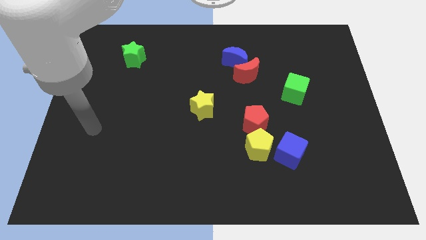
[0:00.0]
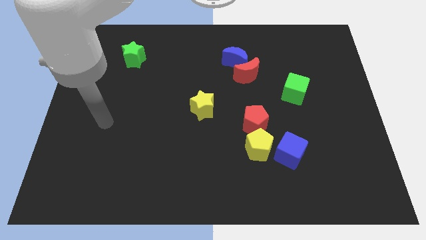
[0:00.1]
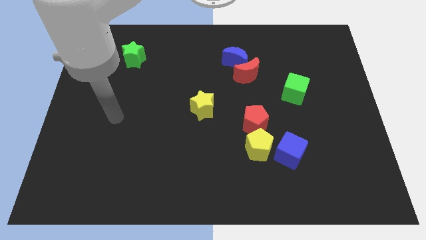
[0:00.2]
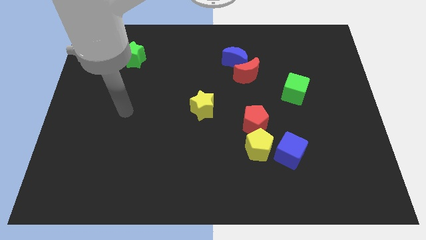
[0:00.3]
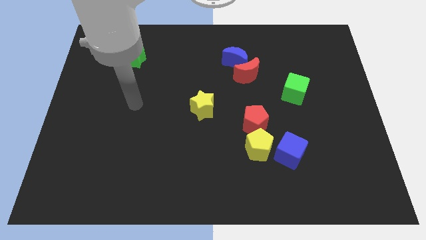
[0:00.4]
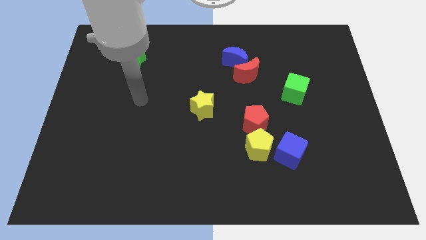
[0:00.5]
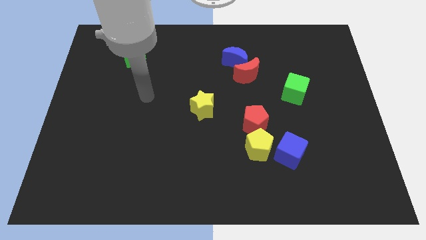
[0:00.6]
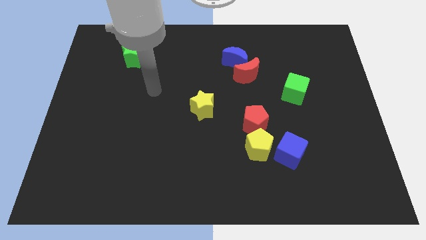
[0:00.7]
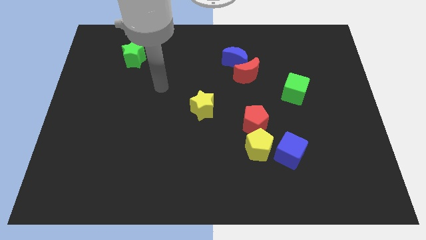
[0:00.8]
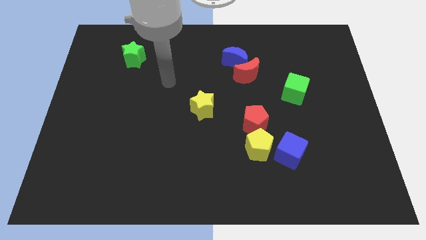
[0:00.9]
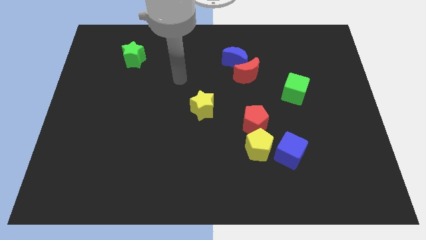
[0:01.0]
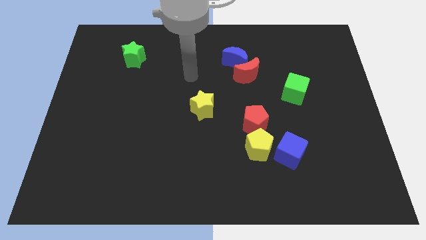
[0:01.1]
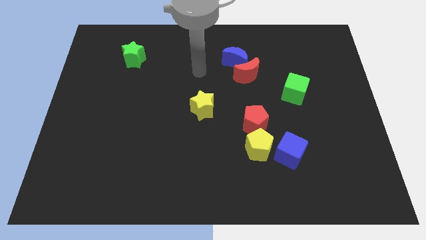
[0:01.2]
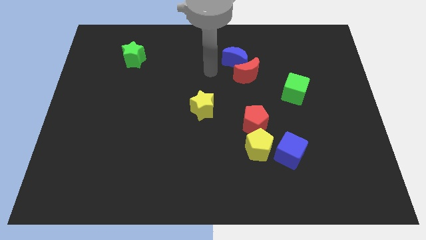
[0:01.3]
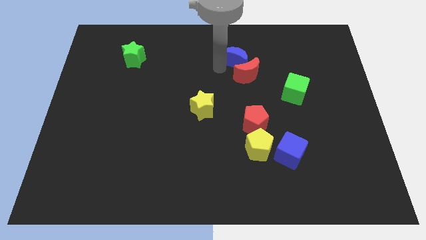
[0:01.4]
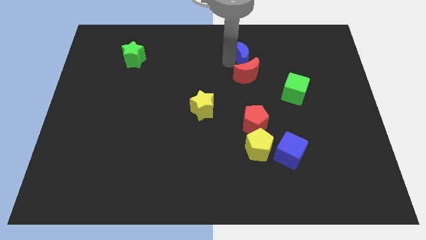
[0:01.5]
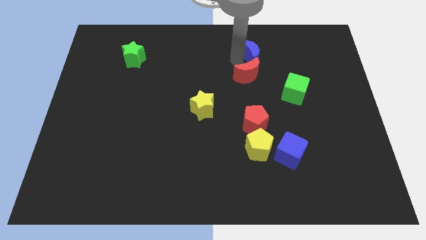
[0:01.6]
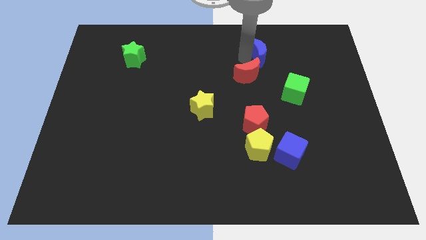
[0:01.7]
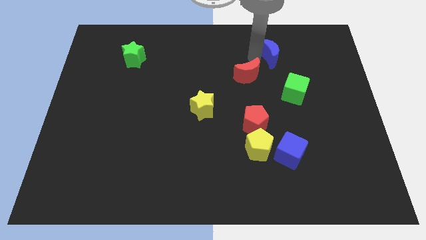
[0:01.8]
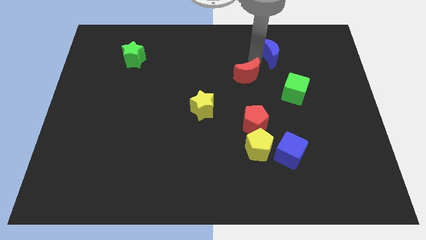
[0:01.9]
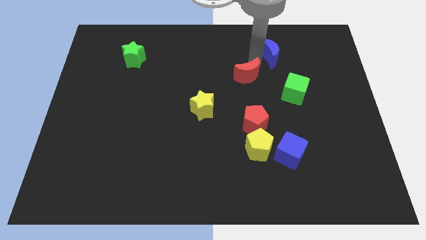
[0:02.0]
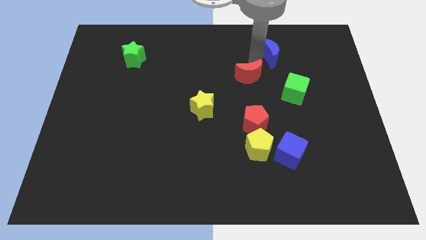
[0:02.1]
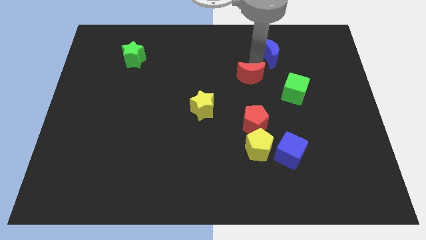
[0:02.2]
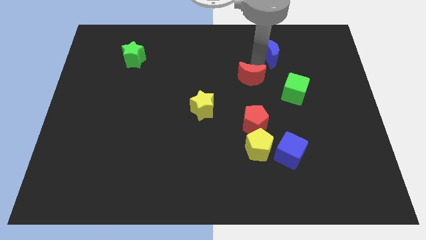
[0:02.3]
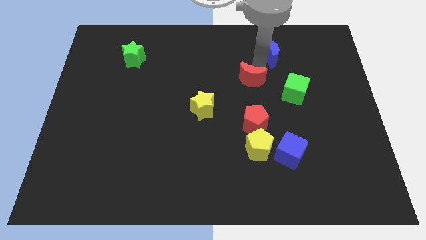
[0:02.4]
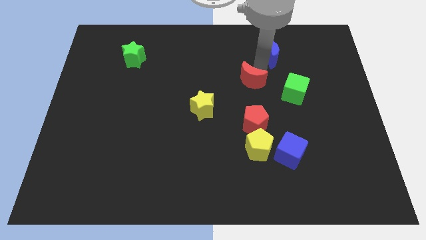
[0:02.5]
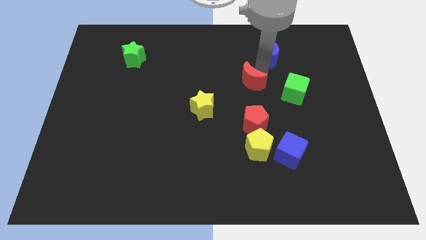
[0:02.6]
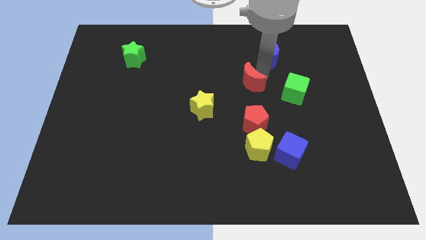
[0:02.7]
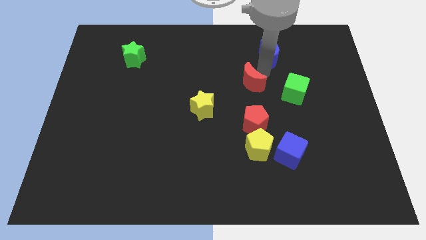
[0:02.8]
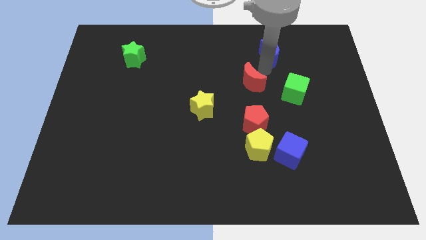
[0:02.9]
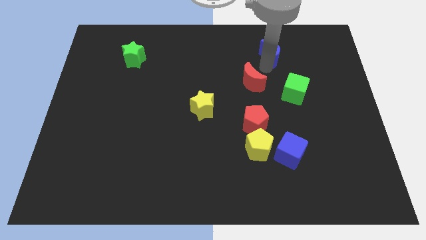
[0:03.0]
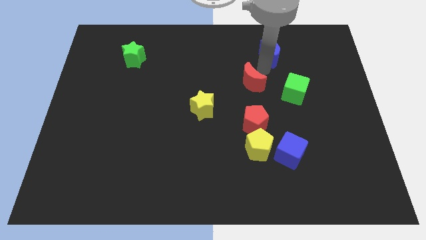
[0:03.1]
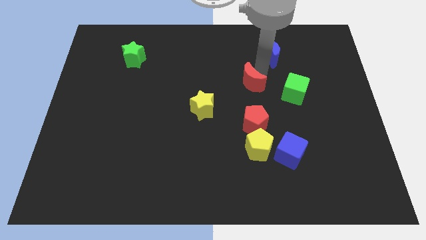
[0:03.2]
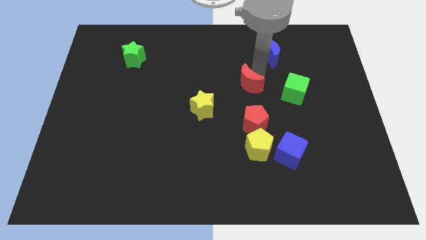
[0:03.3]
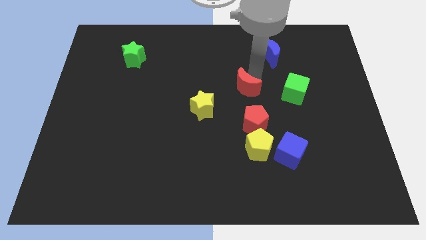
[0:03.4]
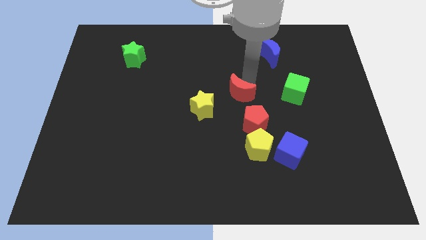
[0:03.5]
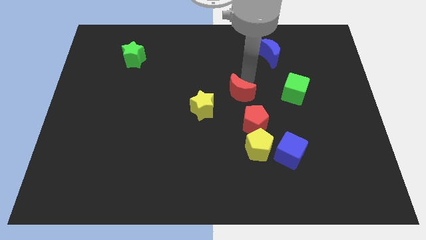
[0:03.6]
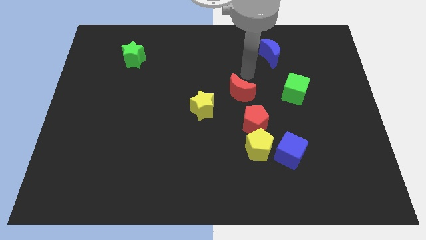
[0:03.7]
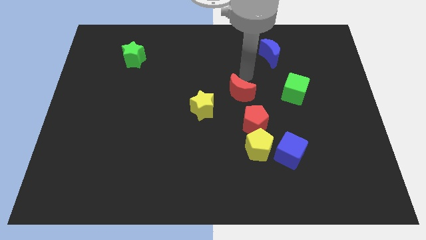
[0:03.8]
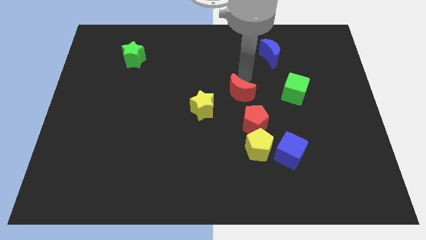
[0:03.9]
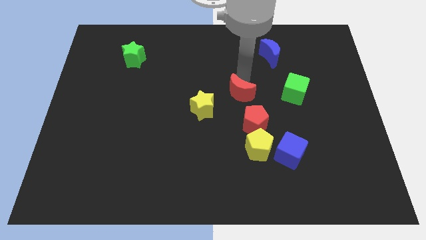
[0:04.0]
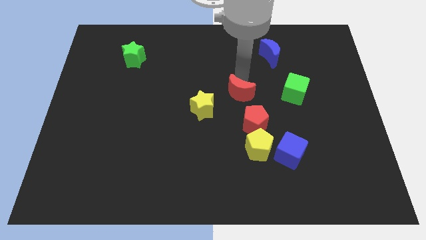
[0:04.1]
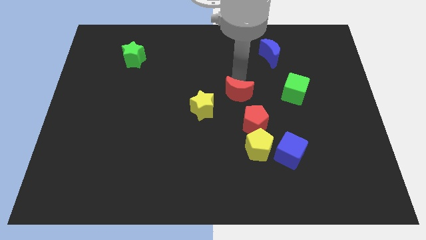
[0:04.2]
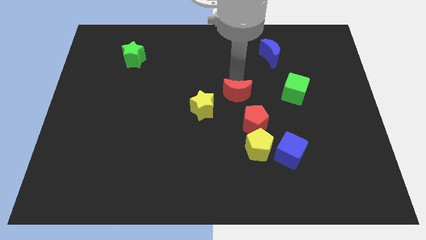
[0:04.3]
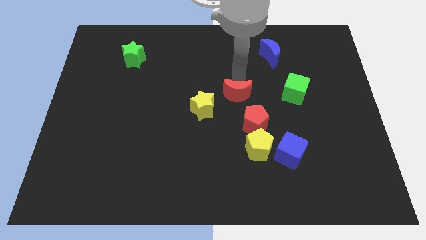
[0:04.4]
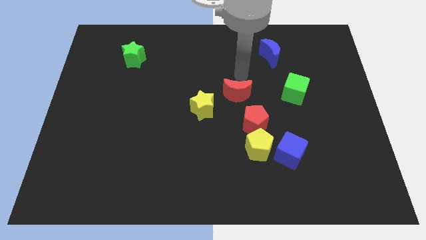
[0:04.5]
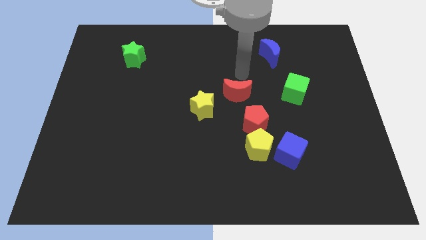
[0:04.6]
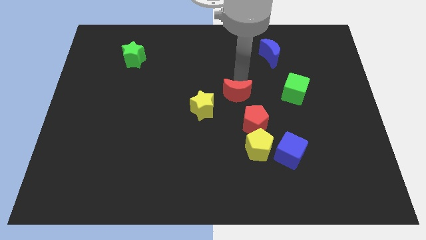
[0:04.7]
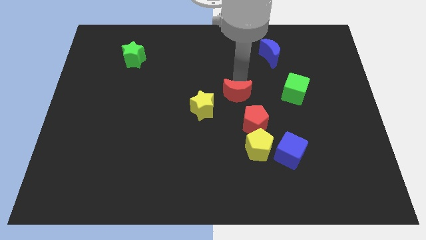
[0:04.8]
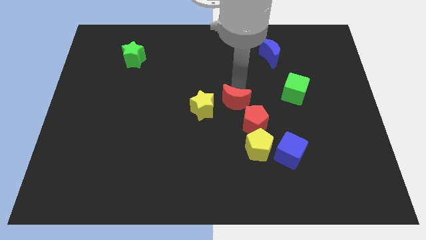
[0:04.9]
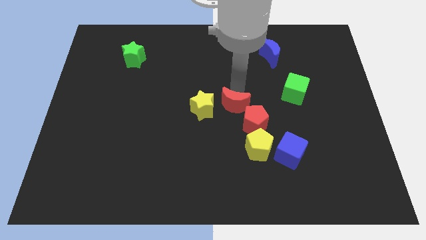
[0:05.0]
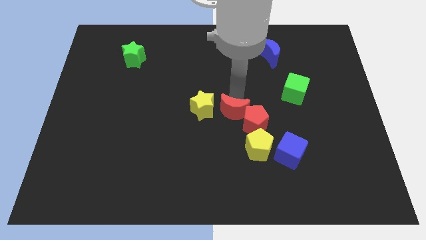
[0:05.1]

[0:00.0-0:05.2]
push the red moon to the bottom right of the yellow star

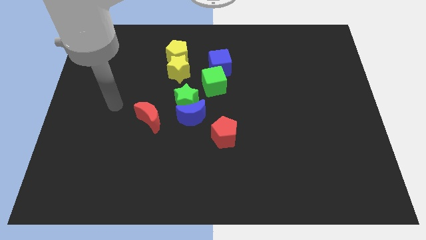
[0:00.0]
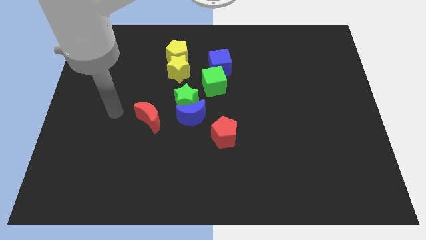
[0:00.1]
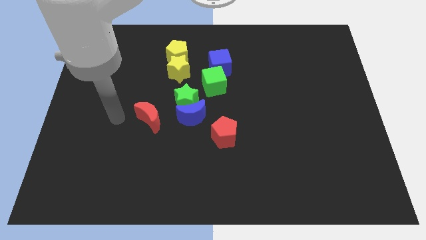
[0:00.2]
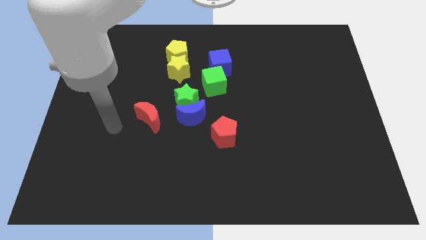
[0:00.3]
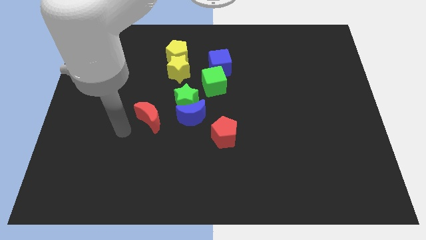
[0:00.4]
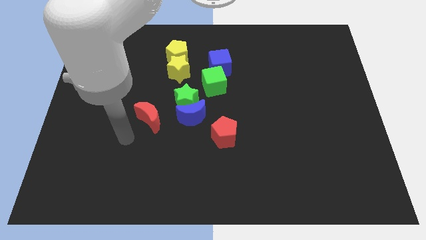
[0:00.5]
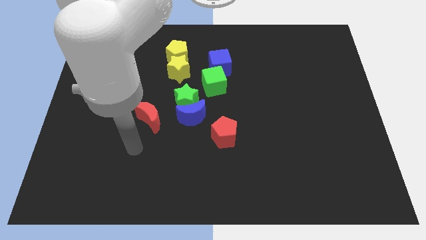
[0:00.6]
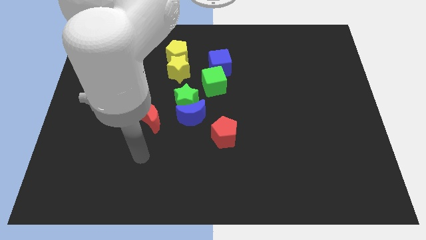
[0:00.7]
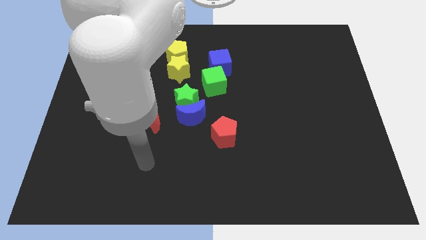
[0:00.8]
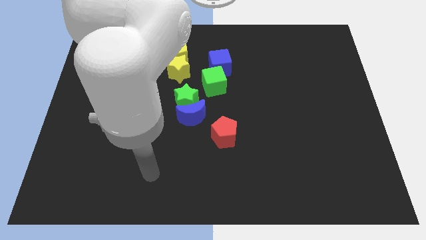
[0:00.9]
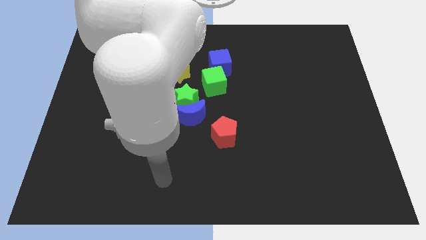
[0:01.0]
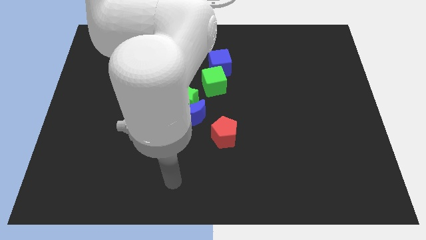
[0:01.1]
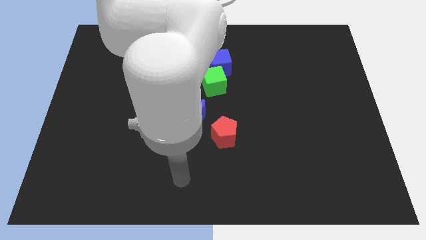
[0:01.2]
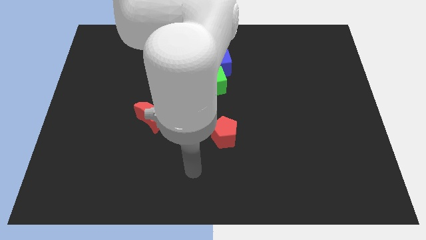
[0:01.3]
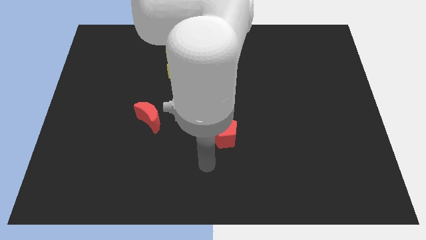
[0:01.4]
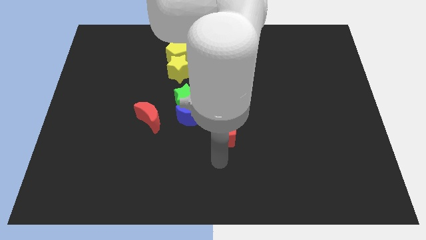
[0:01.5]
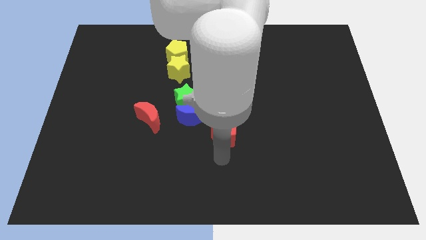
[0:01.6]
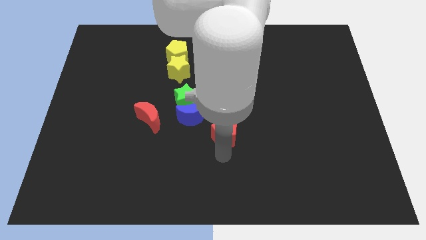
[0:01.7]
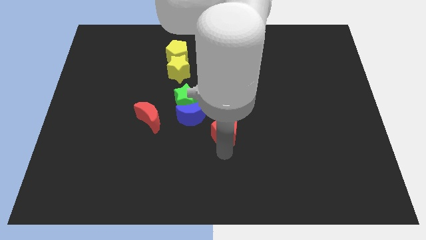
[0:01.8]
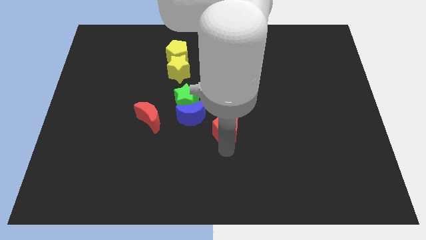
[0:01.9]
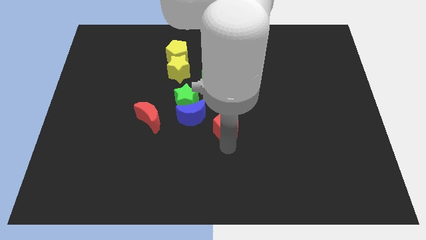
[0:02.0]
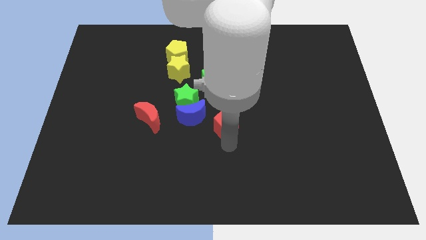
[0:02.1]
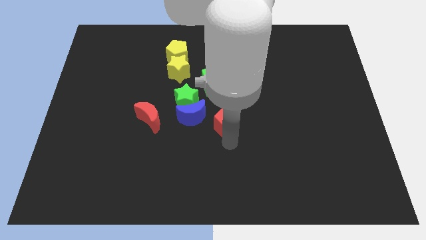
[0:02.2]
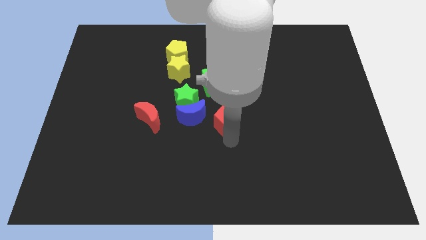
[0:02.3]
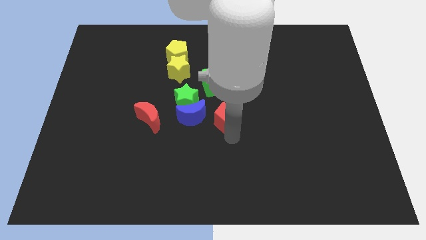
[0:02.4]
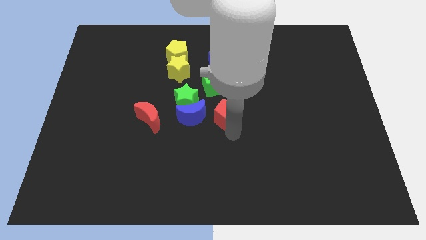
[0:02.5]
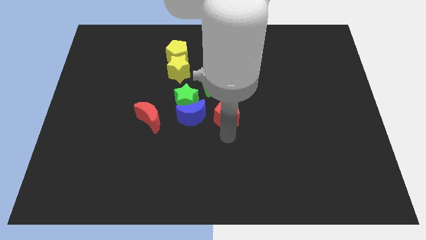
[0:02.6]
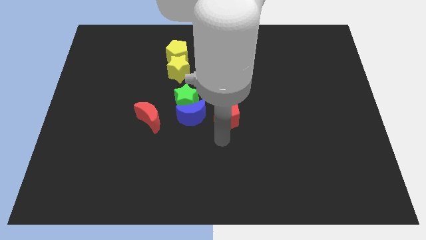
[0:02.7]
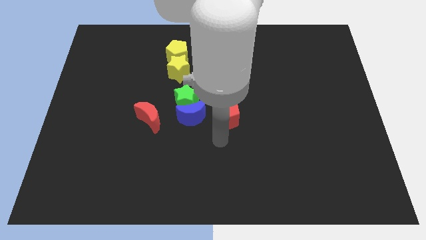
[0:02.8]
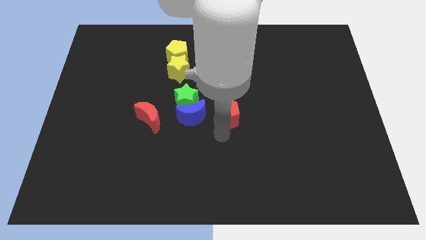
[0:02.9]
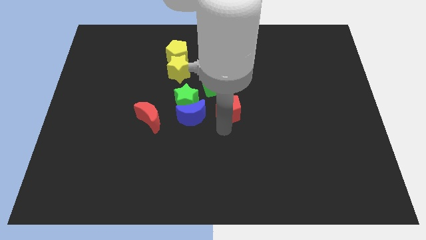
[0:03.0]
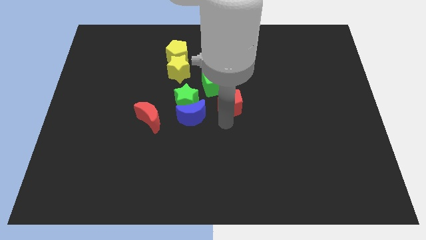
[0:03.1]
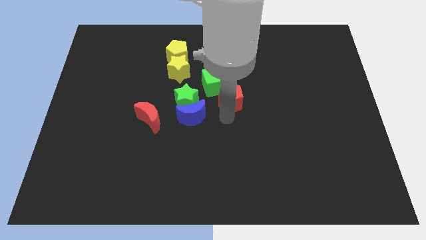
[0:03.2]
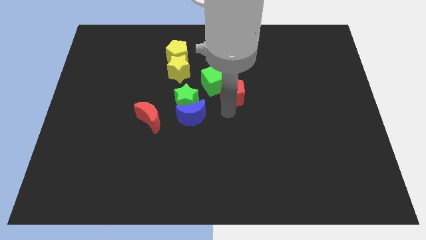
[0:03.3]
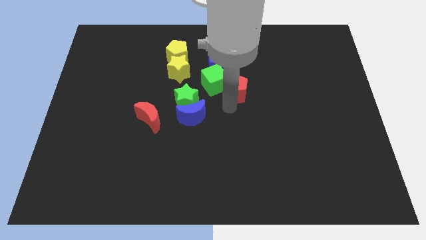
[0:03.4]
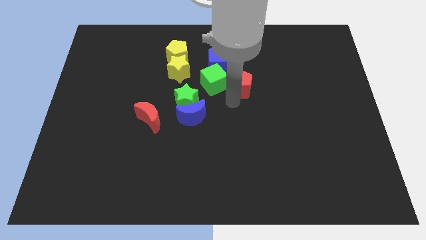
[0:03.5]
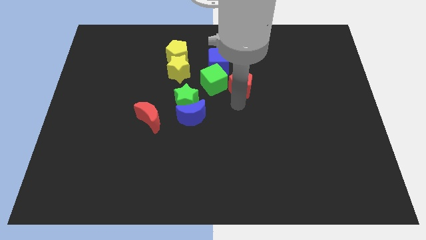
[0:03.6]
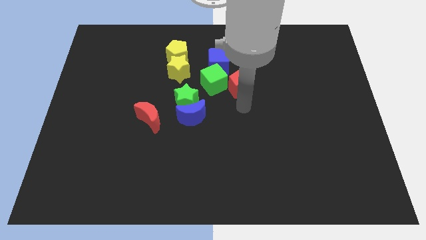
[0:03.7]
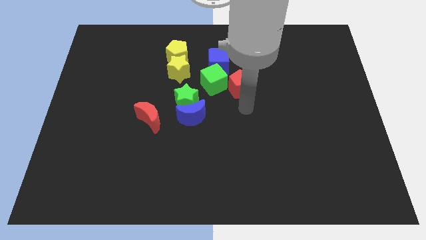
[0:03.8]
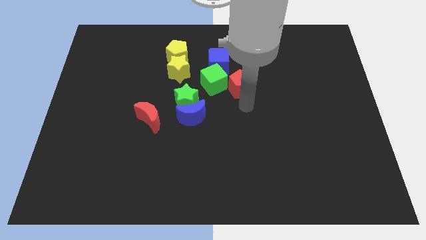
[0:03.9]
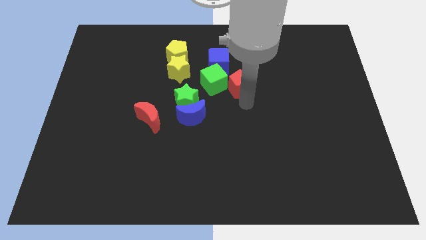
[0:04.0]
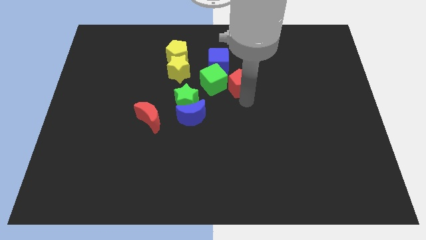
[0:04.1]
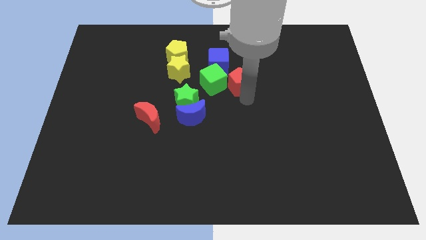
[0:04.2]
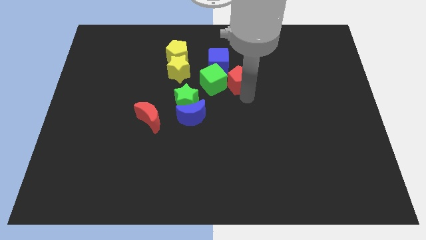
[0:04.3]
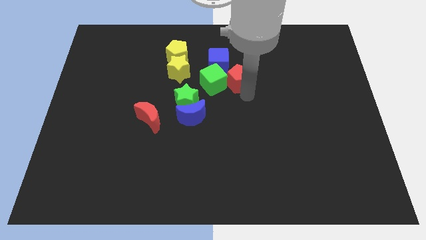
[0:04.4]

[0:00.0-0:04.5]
slide the red pentagon to the right of the yellow star
